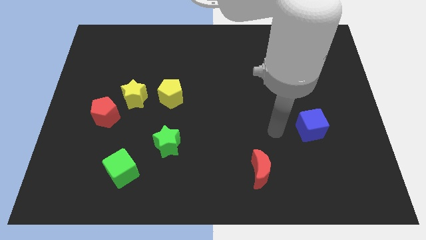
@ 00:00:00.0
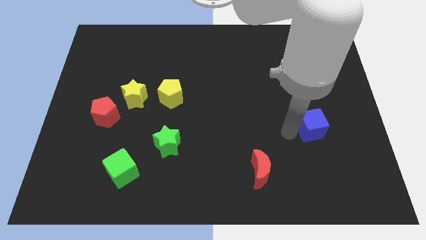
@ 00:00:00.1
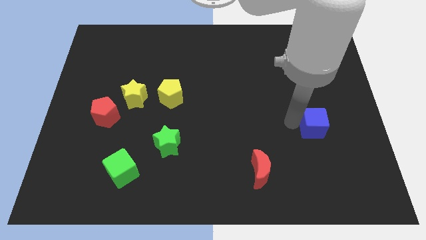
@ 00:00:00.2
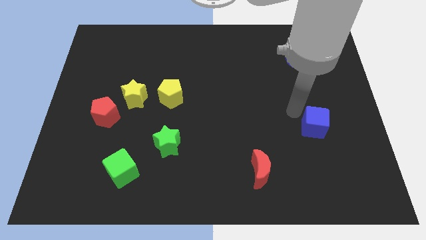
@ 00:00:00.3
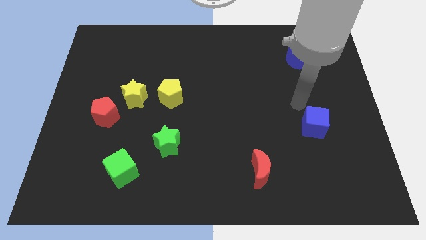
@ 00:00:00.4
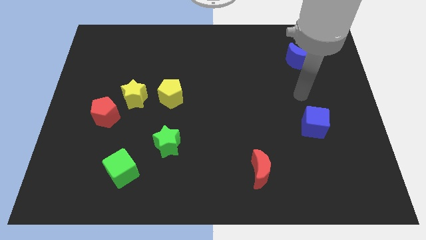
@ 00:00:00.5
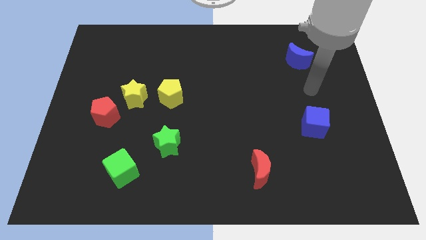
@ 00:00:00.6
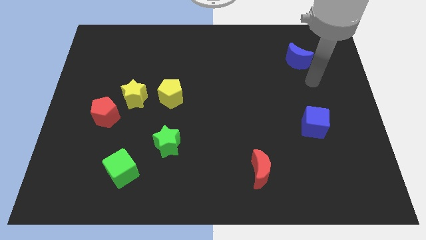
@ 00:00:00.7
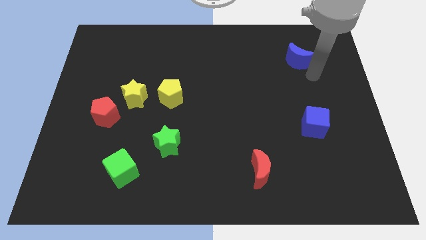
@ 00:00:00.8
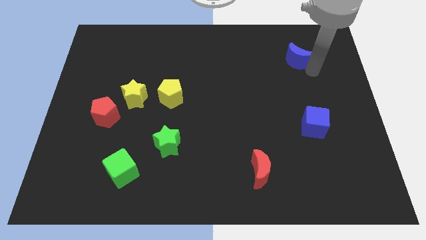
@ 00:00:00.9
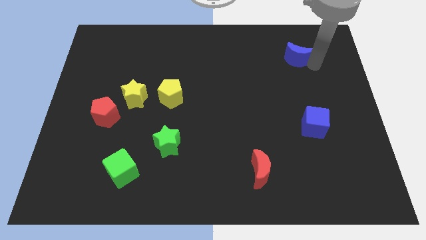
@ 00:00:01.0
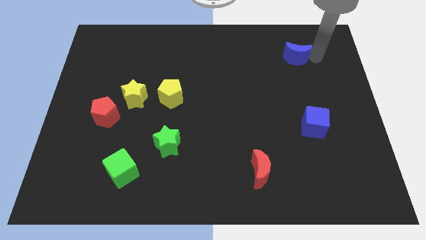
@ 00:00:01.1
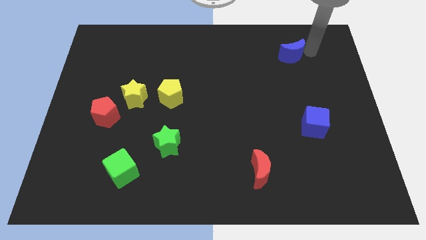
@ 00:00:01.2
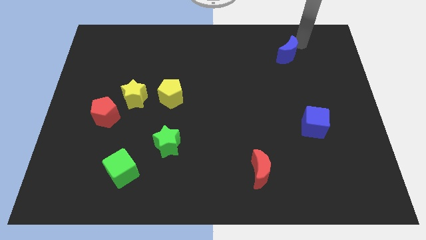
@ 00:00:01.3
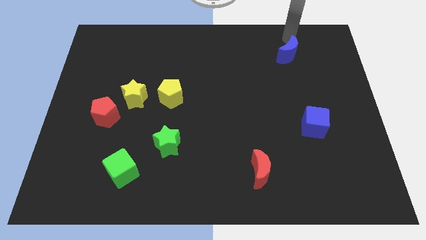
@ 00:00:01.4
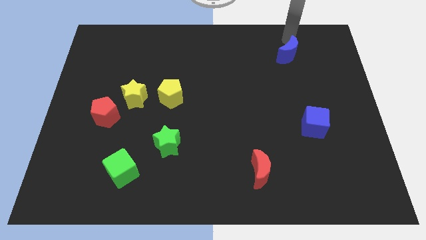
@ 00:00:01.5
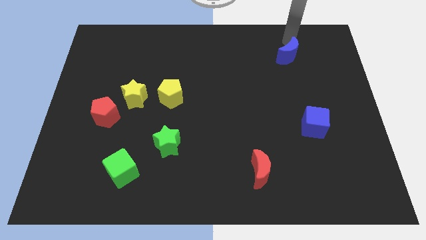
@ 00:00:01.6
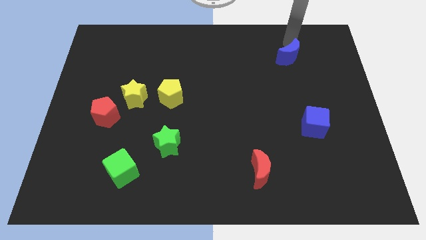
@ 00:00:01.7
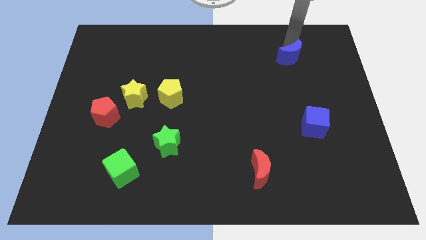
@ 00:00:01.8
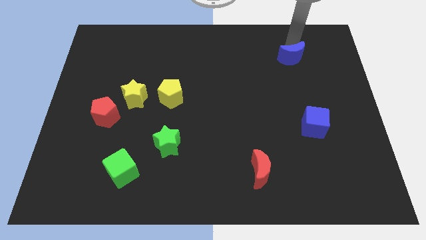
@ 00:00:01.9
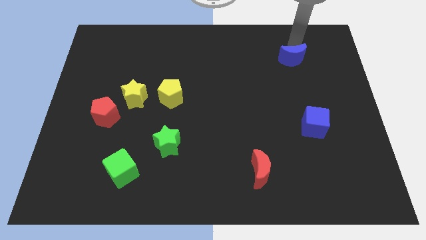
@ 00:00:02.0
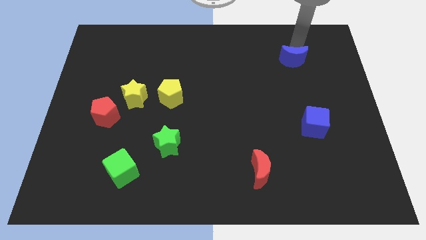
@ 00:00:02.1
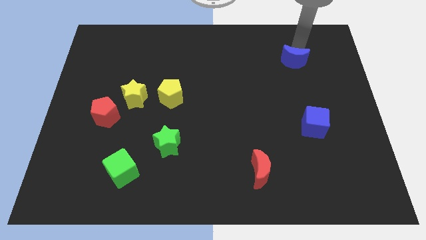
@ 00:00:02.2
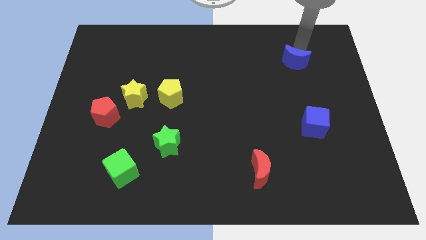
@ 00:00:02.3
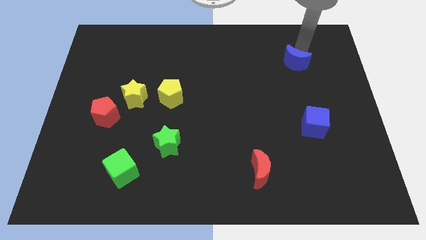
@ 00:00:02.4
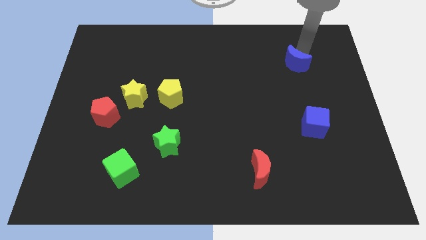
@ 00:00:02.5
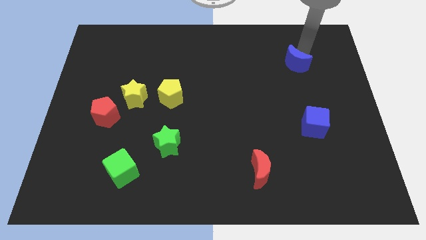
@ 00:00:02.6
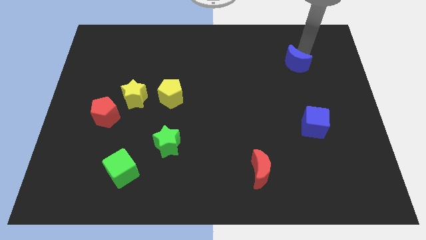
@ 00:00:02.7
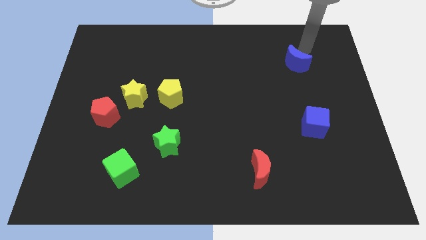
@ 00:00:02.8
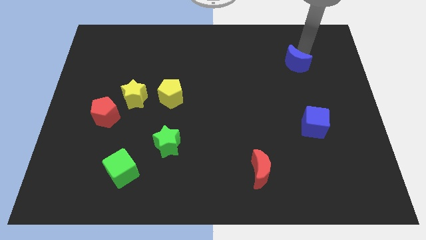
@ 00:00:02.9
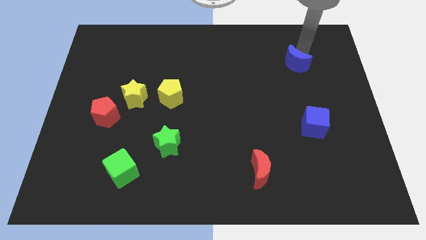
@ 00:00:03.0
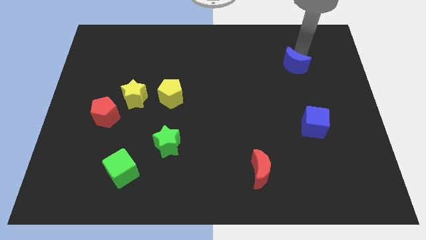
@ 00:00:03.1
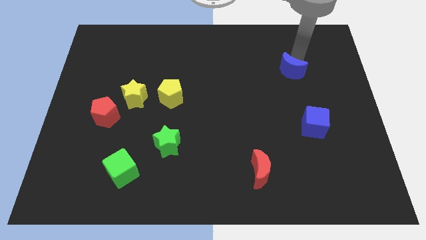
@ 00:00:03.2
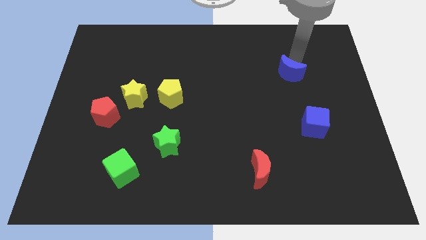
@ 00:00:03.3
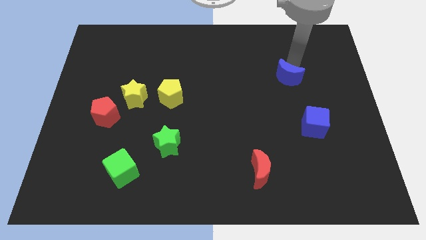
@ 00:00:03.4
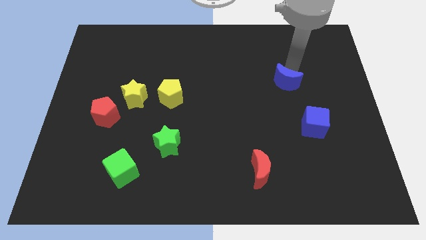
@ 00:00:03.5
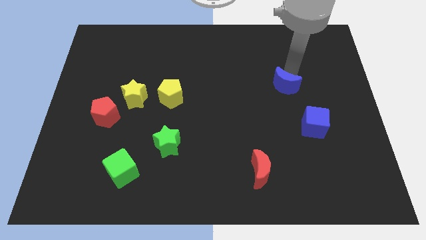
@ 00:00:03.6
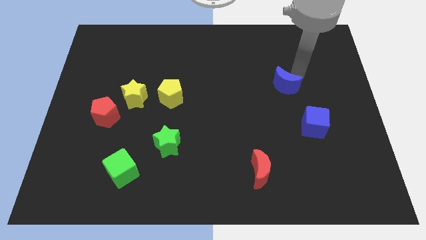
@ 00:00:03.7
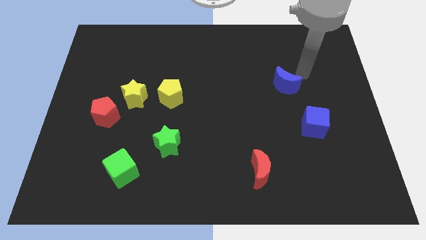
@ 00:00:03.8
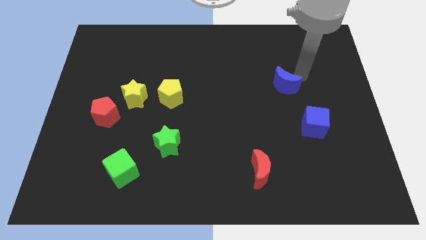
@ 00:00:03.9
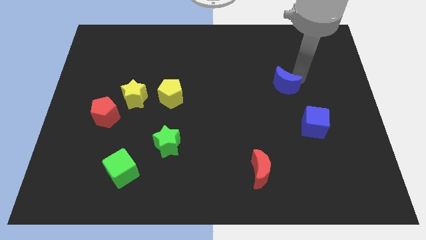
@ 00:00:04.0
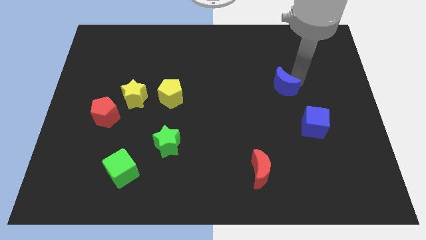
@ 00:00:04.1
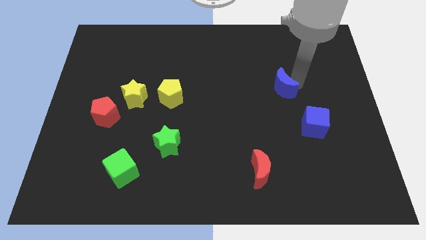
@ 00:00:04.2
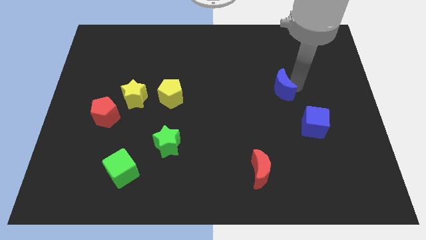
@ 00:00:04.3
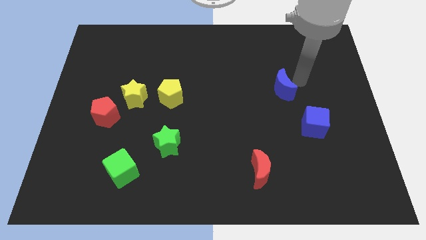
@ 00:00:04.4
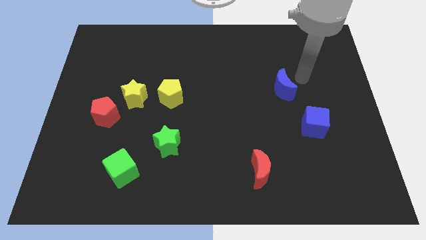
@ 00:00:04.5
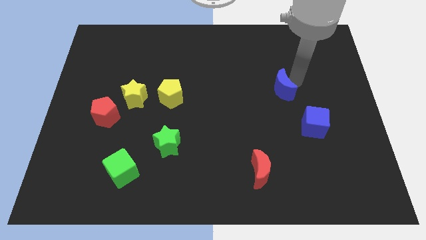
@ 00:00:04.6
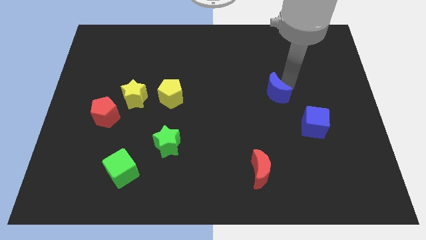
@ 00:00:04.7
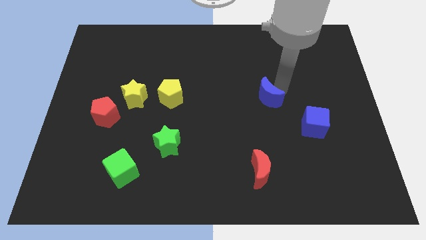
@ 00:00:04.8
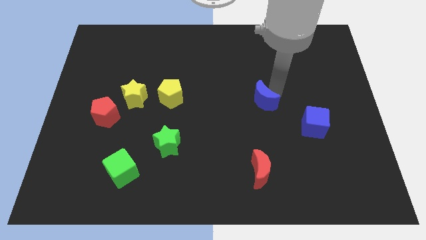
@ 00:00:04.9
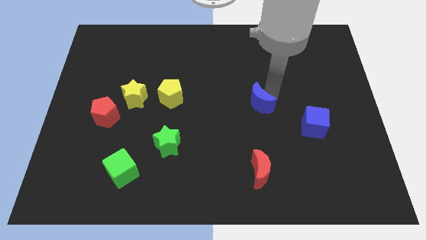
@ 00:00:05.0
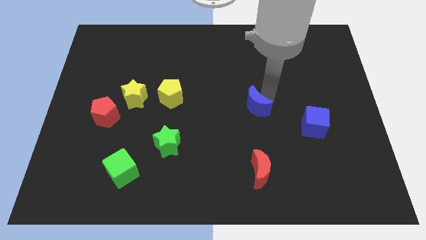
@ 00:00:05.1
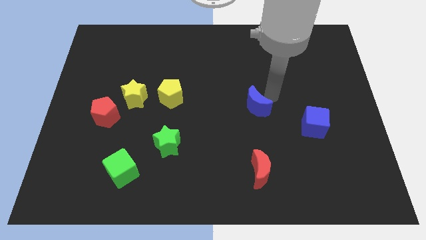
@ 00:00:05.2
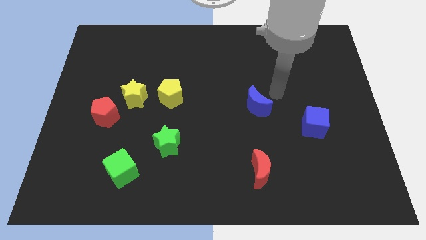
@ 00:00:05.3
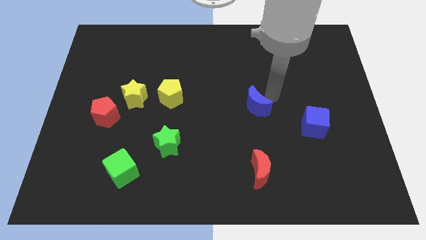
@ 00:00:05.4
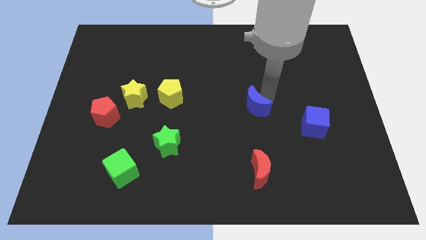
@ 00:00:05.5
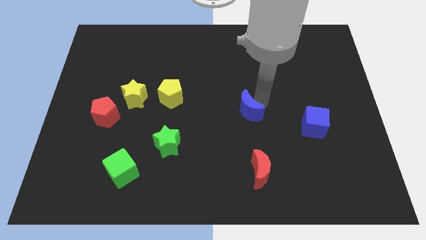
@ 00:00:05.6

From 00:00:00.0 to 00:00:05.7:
slide the blue moon down and to the left

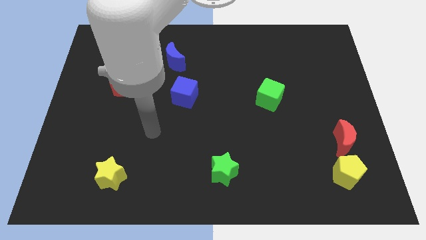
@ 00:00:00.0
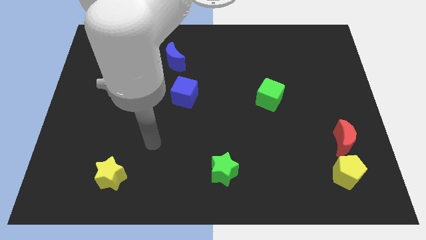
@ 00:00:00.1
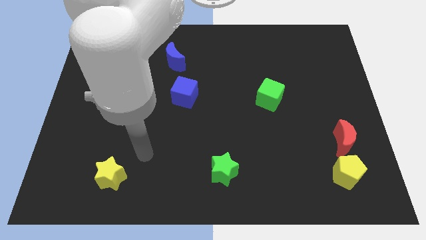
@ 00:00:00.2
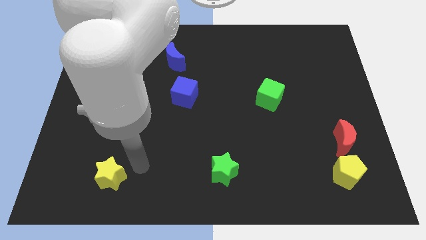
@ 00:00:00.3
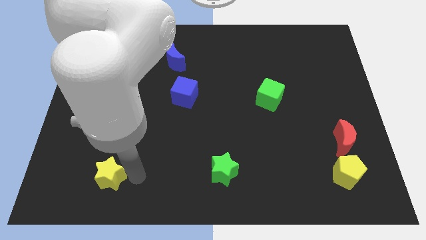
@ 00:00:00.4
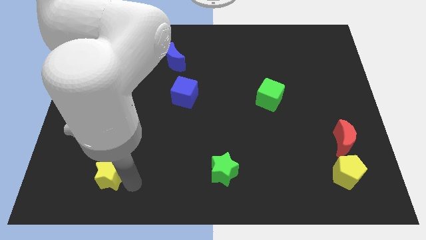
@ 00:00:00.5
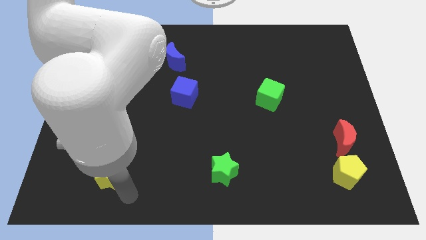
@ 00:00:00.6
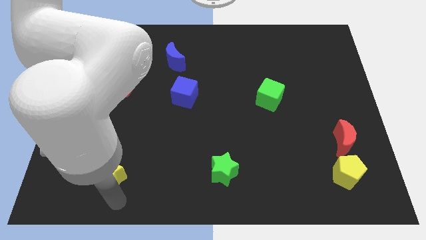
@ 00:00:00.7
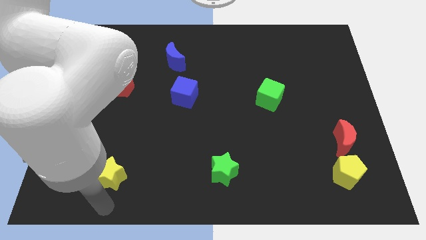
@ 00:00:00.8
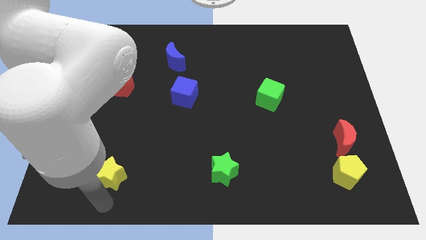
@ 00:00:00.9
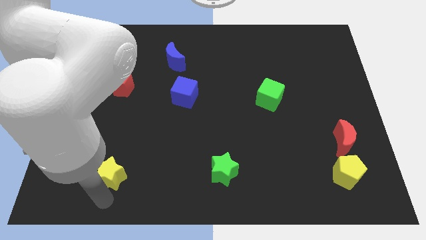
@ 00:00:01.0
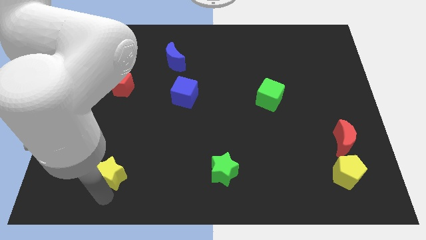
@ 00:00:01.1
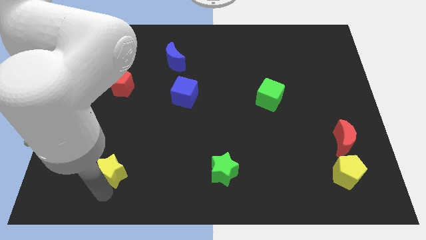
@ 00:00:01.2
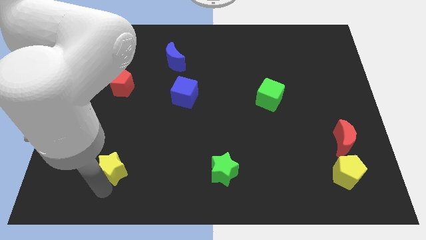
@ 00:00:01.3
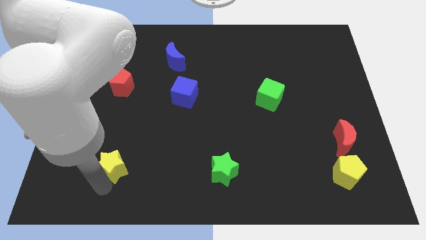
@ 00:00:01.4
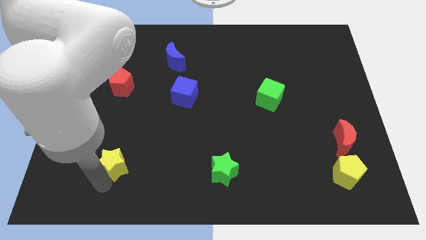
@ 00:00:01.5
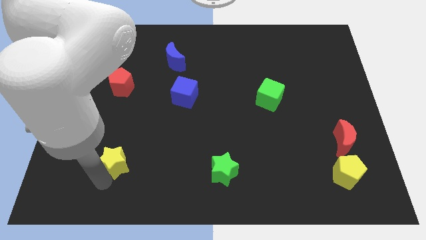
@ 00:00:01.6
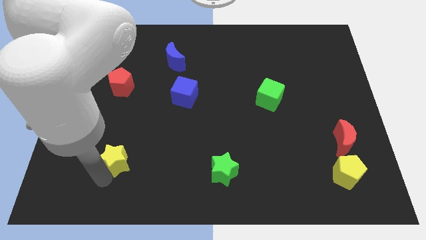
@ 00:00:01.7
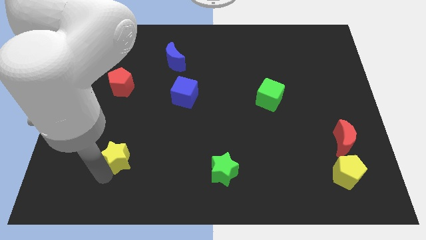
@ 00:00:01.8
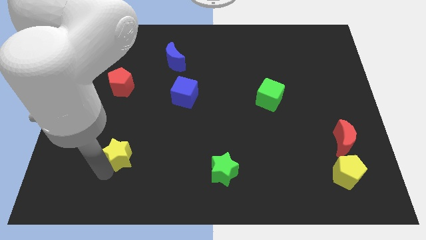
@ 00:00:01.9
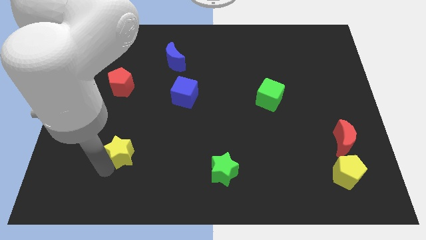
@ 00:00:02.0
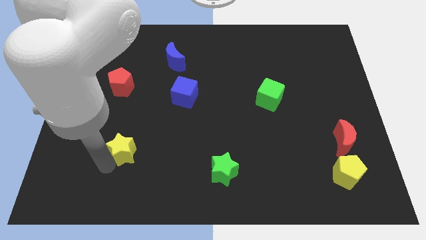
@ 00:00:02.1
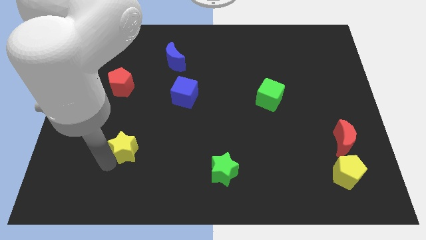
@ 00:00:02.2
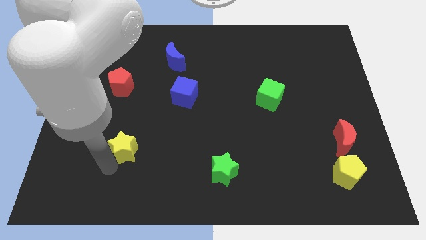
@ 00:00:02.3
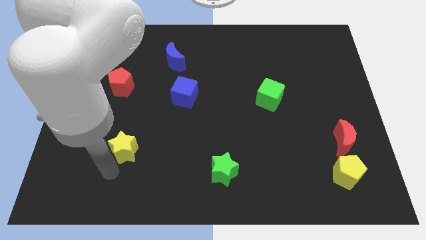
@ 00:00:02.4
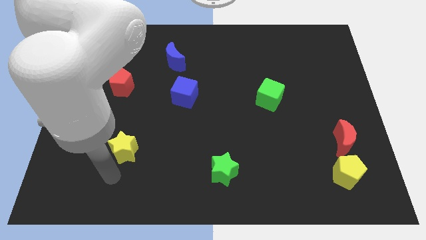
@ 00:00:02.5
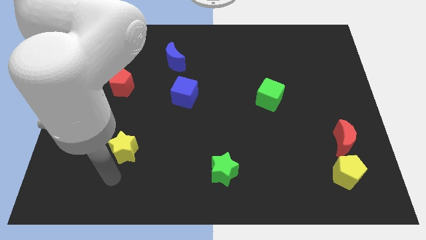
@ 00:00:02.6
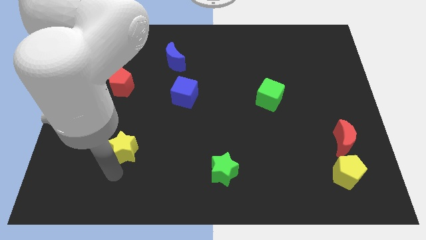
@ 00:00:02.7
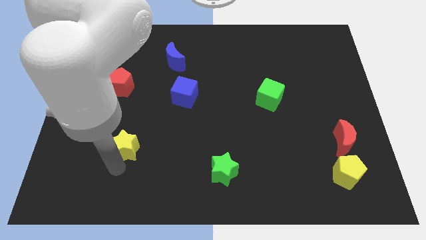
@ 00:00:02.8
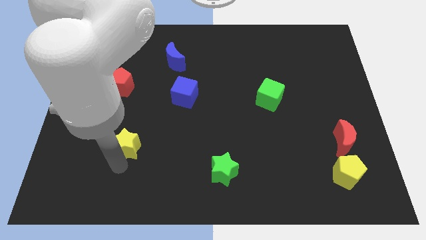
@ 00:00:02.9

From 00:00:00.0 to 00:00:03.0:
push the yellow star slightly up
